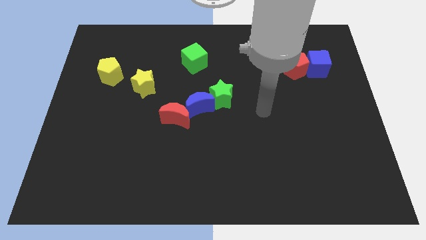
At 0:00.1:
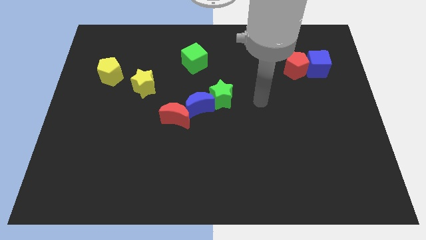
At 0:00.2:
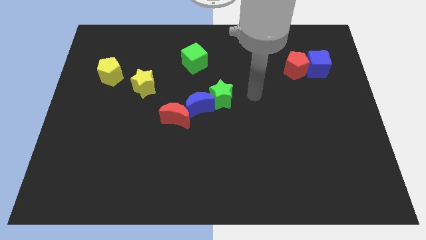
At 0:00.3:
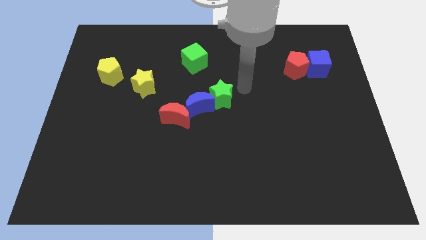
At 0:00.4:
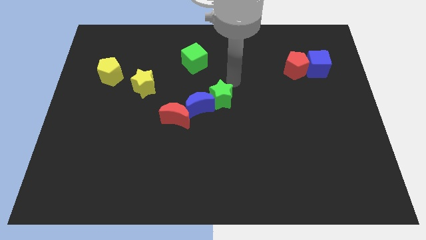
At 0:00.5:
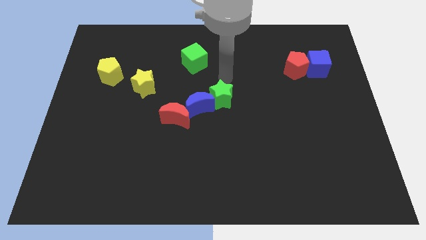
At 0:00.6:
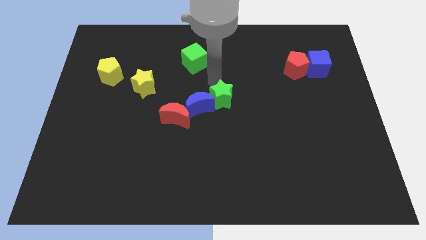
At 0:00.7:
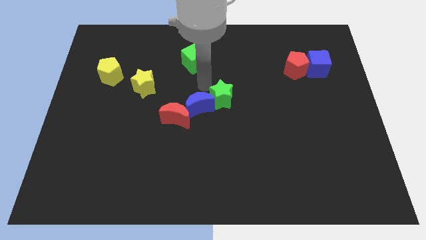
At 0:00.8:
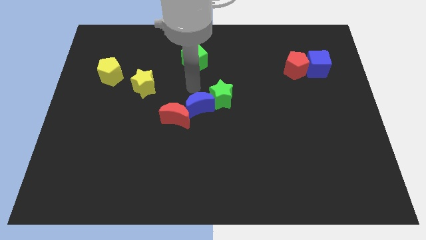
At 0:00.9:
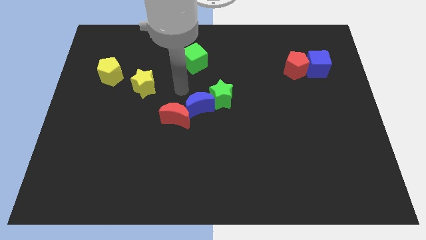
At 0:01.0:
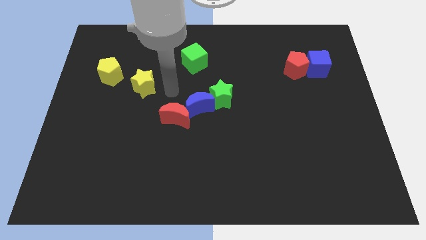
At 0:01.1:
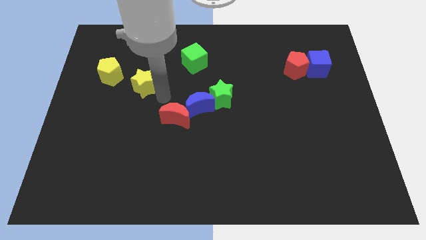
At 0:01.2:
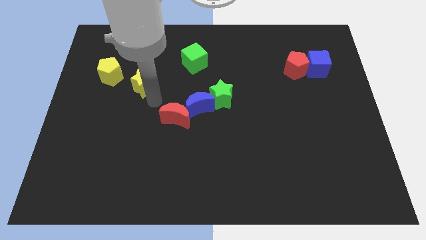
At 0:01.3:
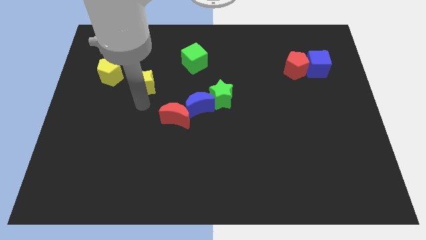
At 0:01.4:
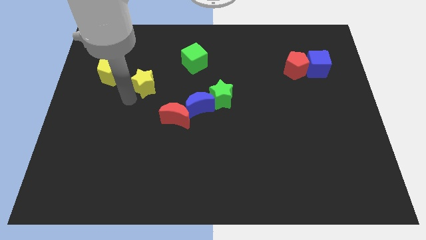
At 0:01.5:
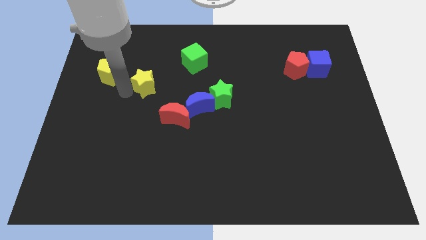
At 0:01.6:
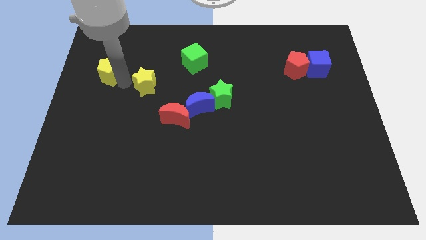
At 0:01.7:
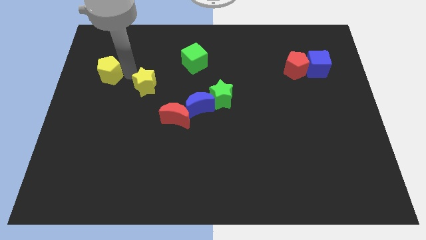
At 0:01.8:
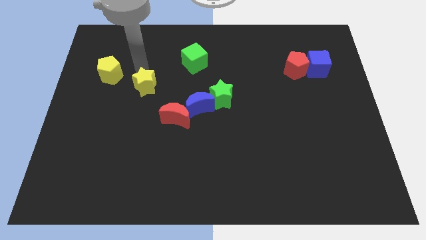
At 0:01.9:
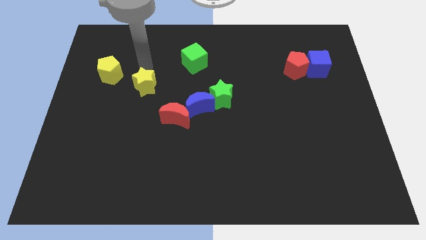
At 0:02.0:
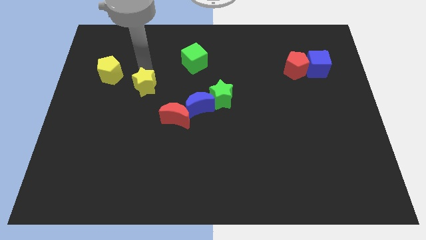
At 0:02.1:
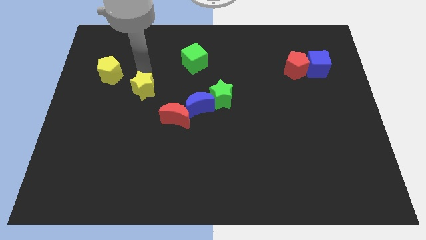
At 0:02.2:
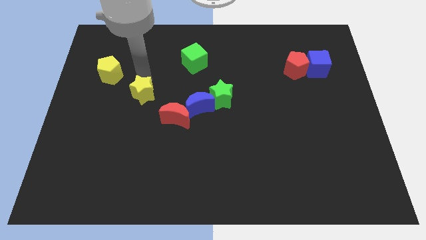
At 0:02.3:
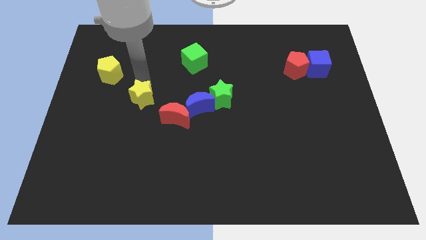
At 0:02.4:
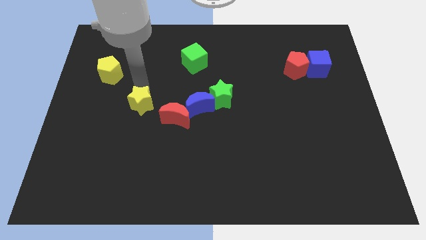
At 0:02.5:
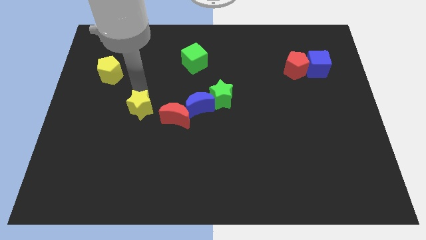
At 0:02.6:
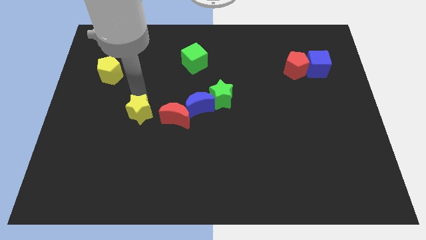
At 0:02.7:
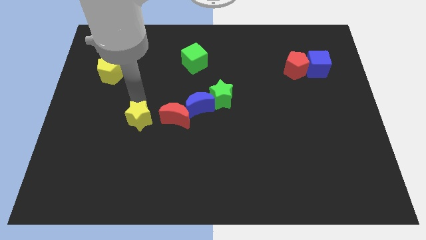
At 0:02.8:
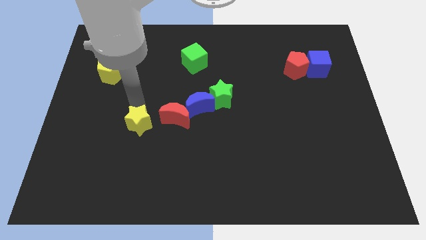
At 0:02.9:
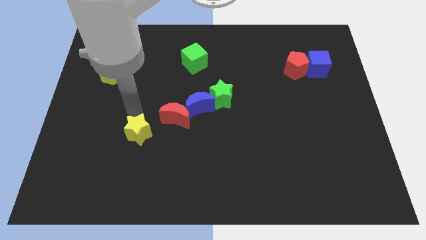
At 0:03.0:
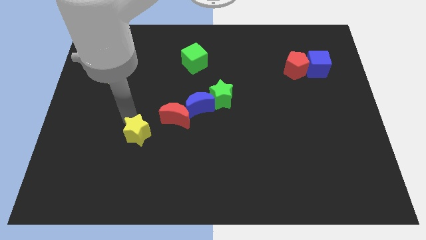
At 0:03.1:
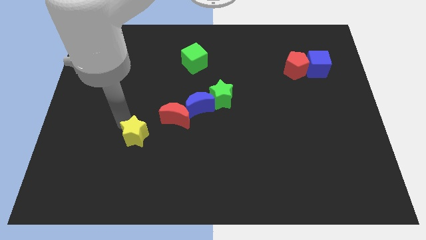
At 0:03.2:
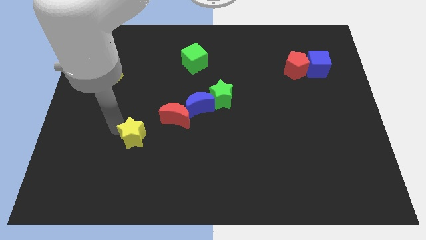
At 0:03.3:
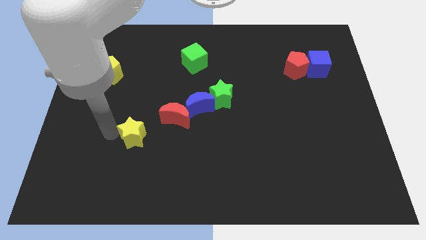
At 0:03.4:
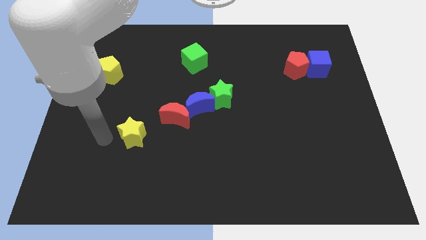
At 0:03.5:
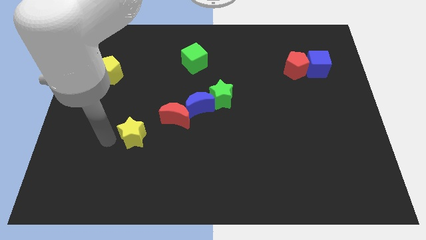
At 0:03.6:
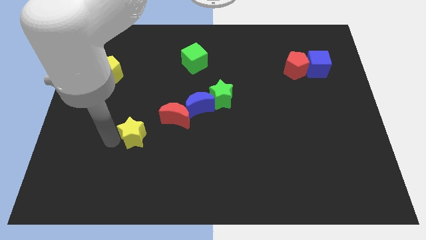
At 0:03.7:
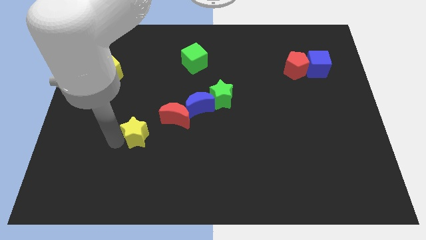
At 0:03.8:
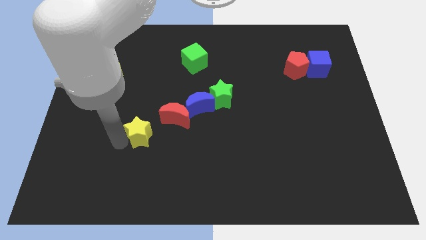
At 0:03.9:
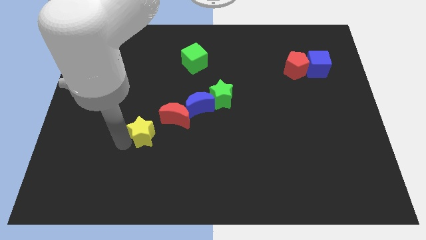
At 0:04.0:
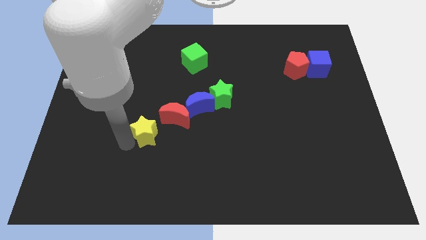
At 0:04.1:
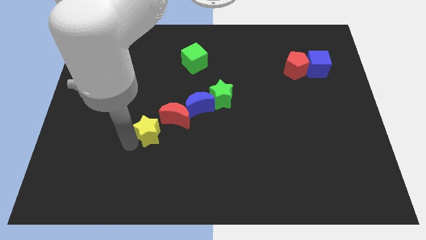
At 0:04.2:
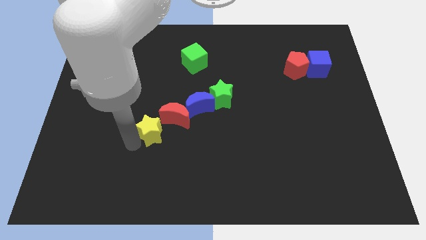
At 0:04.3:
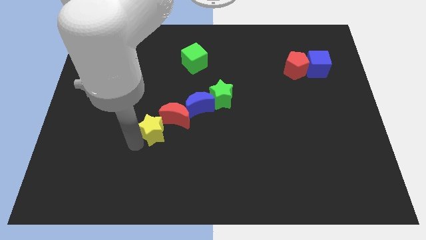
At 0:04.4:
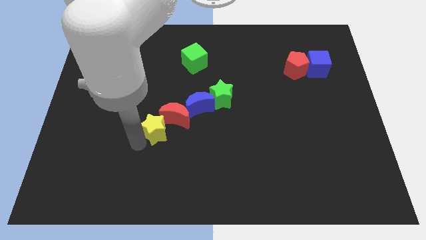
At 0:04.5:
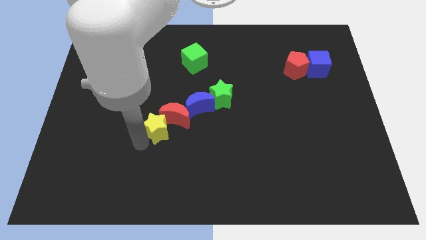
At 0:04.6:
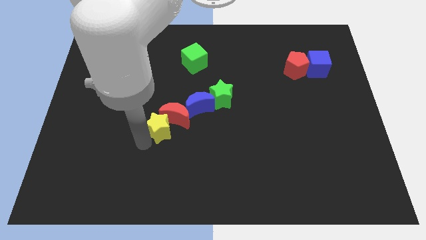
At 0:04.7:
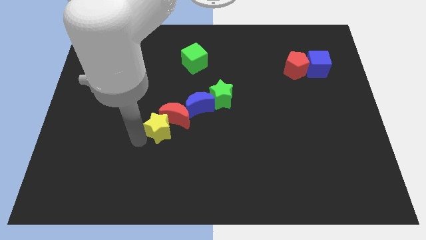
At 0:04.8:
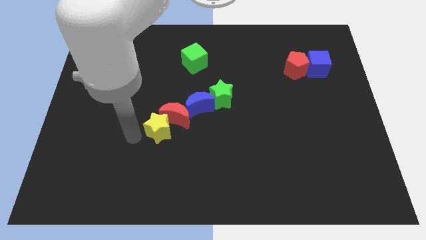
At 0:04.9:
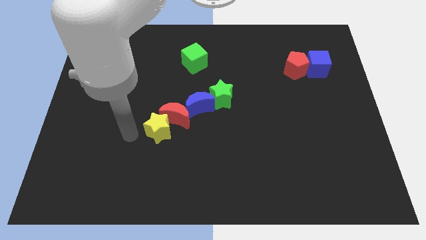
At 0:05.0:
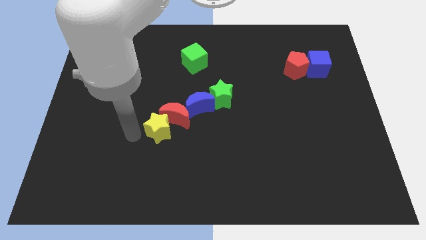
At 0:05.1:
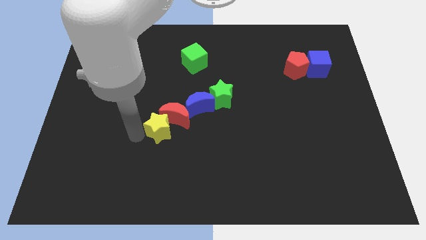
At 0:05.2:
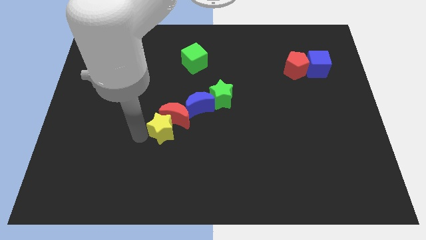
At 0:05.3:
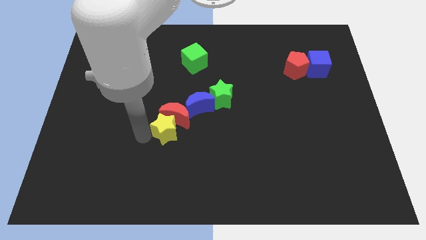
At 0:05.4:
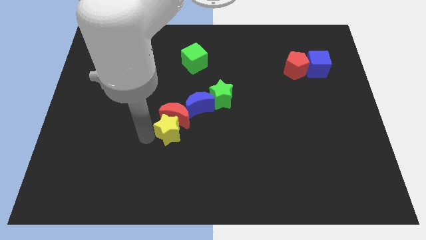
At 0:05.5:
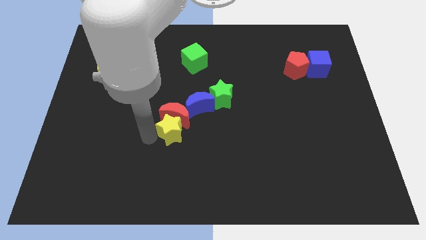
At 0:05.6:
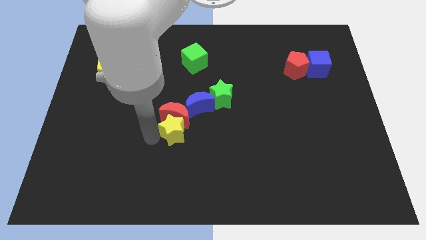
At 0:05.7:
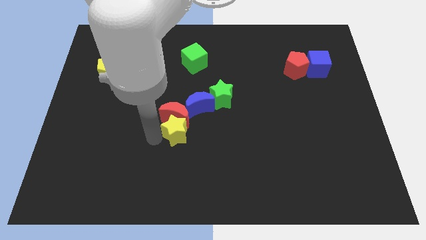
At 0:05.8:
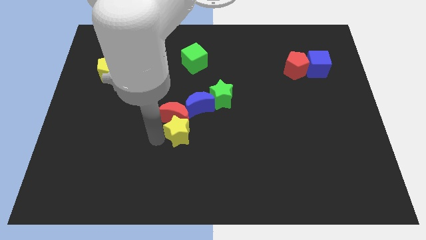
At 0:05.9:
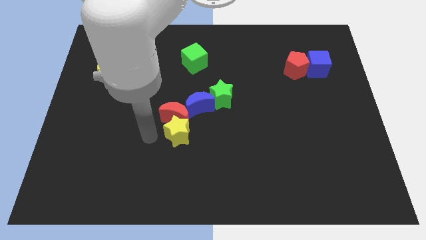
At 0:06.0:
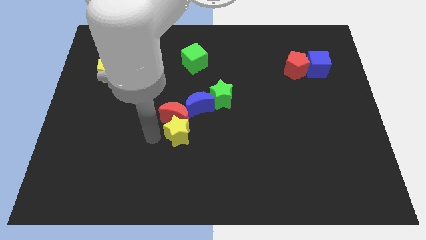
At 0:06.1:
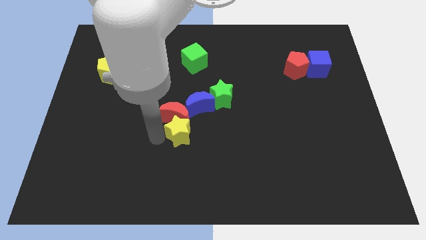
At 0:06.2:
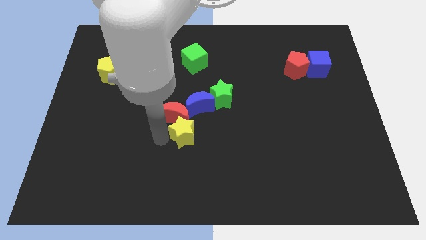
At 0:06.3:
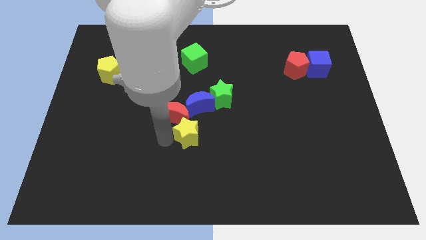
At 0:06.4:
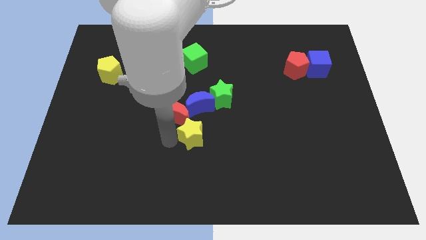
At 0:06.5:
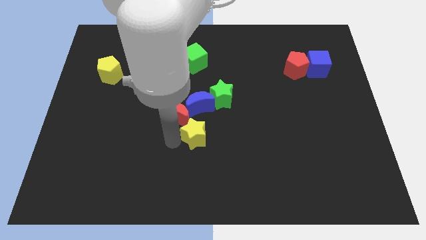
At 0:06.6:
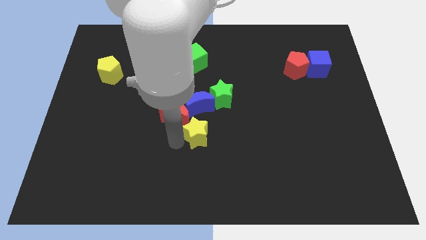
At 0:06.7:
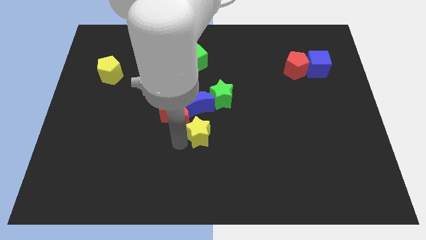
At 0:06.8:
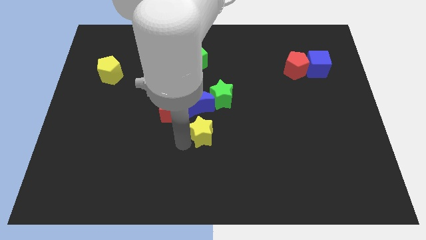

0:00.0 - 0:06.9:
put the yellow star to the bottom of the green star
